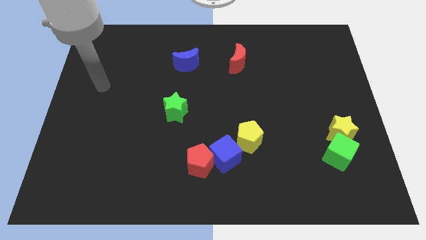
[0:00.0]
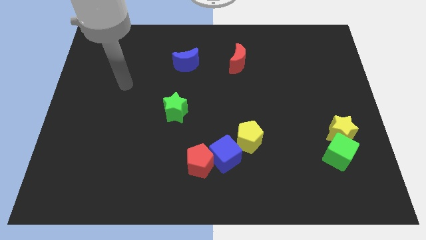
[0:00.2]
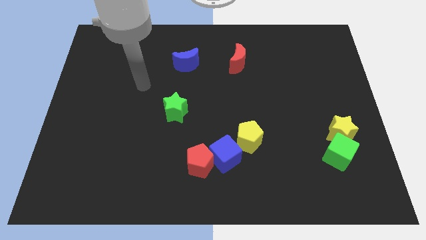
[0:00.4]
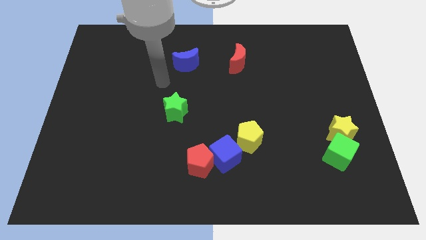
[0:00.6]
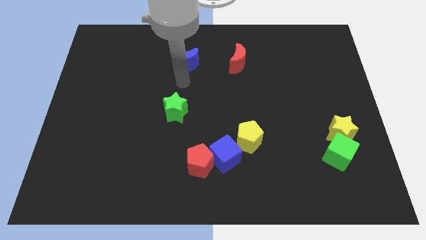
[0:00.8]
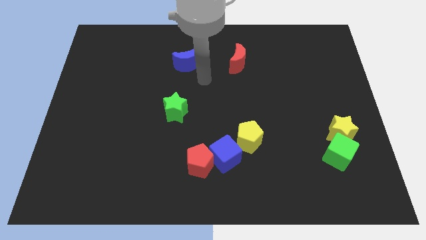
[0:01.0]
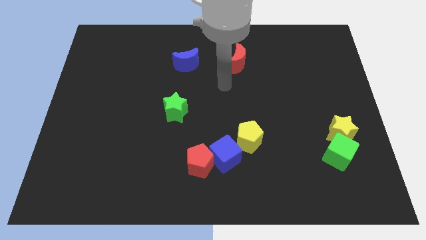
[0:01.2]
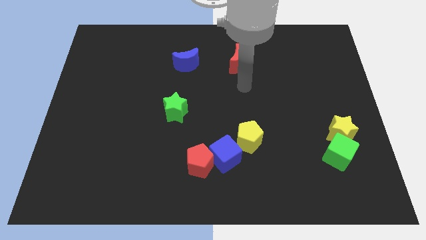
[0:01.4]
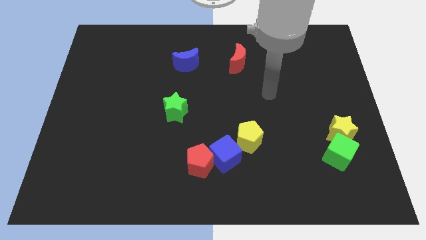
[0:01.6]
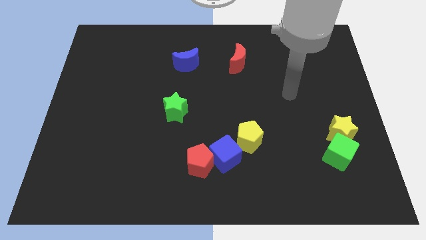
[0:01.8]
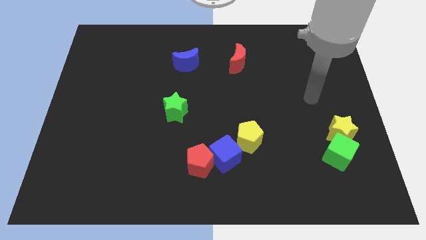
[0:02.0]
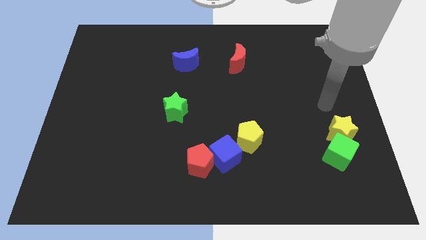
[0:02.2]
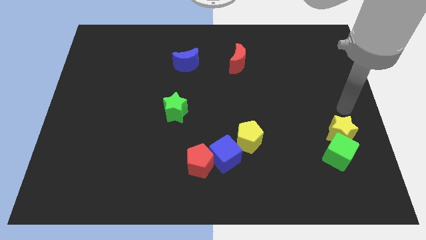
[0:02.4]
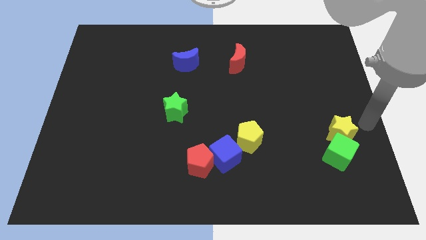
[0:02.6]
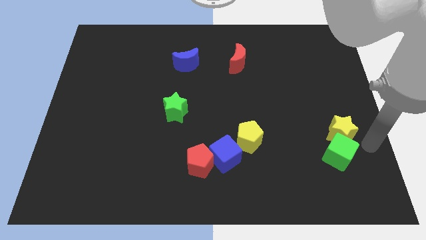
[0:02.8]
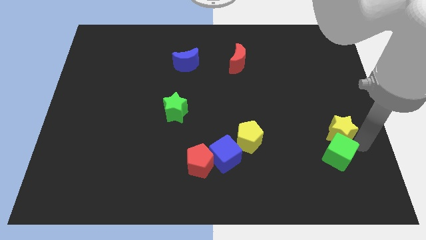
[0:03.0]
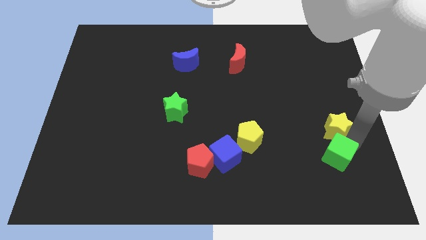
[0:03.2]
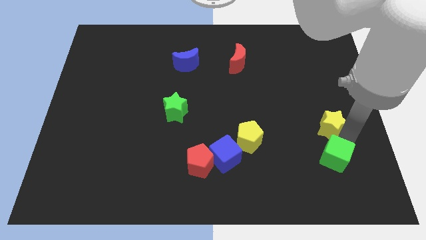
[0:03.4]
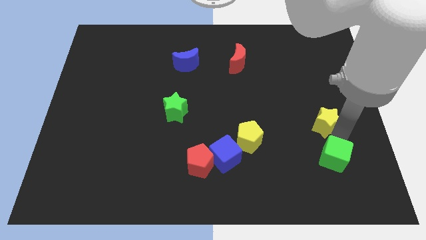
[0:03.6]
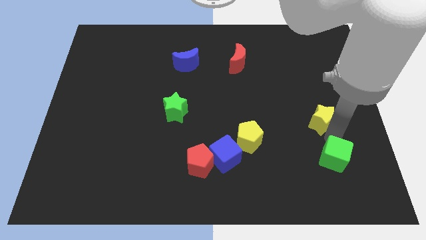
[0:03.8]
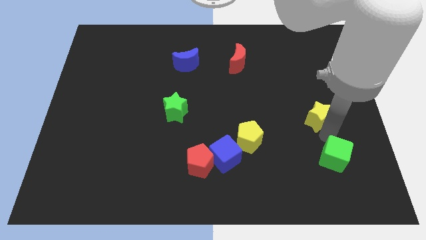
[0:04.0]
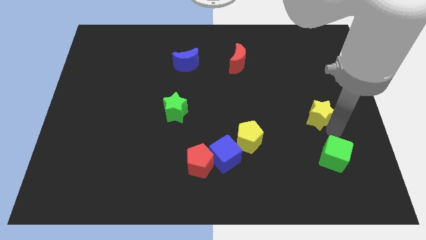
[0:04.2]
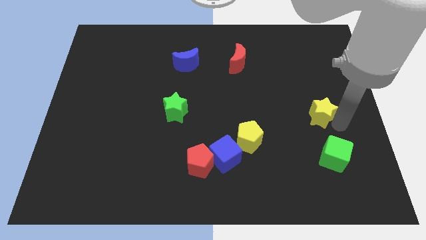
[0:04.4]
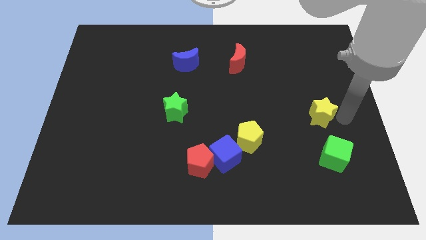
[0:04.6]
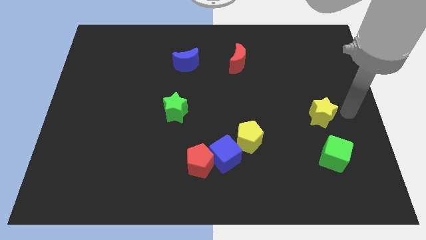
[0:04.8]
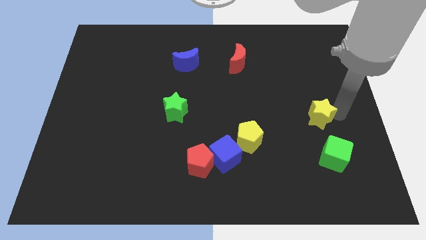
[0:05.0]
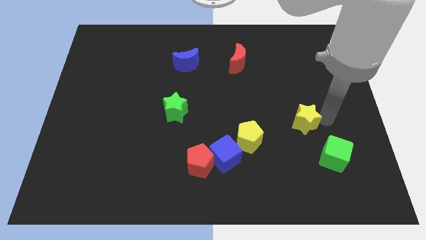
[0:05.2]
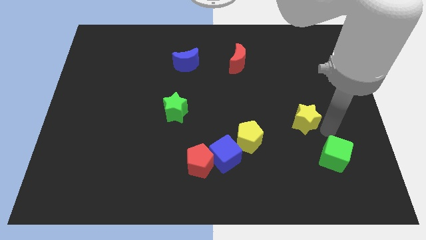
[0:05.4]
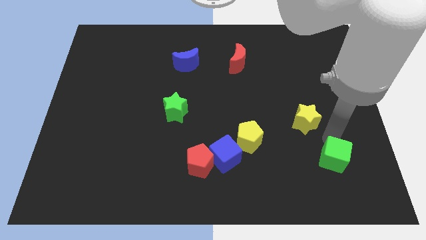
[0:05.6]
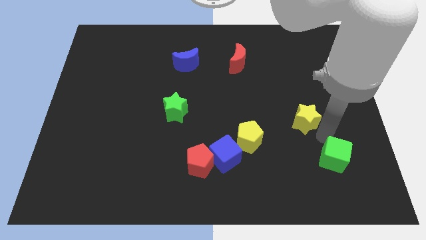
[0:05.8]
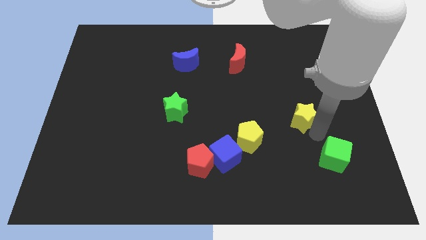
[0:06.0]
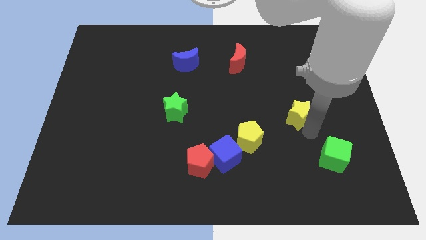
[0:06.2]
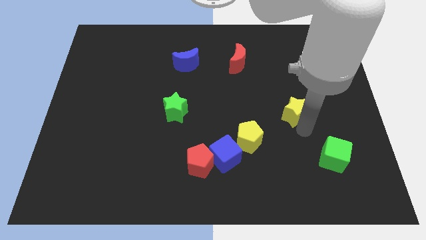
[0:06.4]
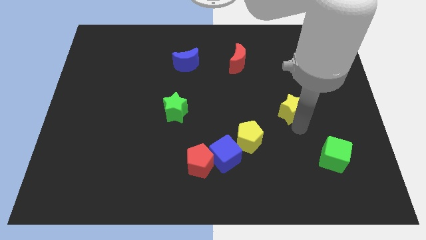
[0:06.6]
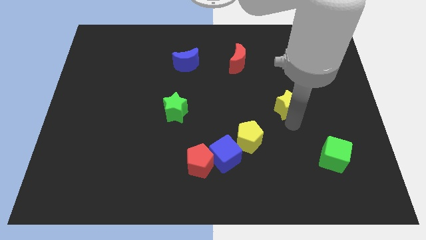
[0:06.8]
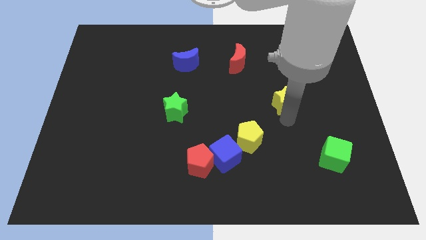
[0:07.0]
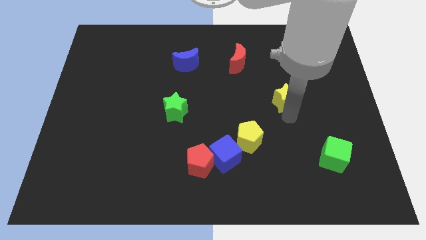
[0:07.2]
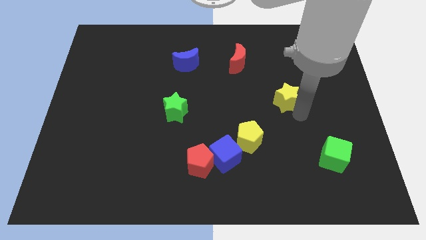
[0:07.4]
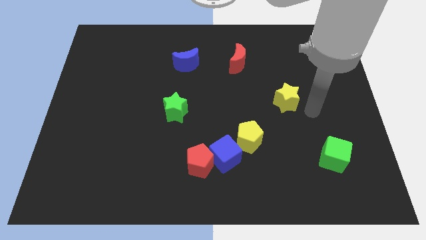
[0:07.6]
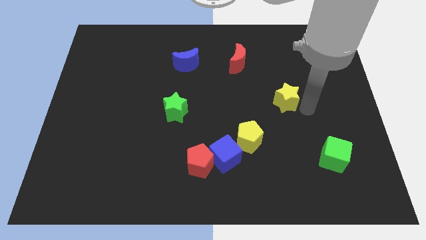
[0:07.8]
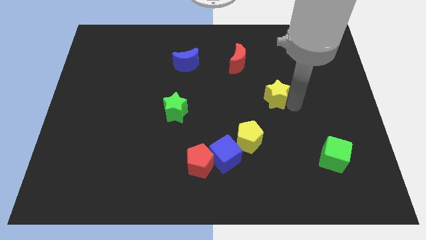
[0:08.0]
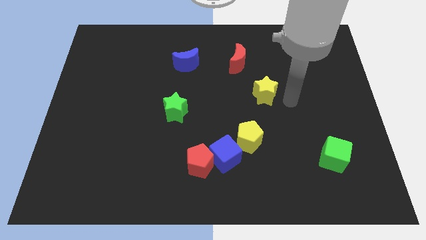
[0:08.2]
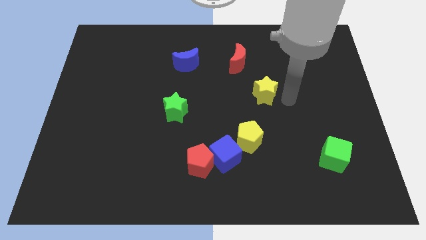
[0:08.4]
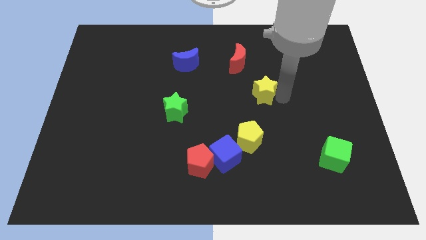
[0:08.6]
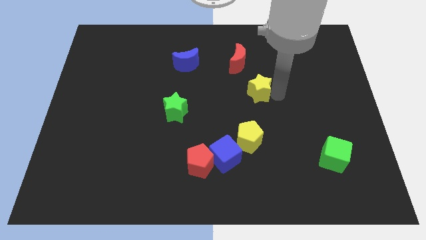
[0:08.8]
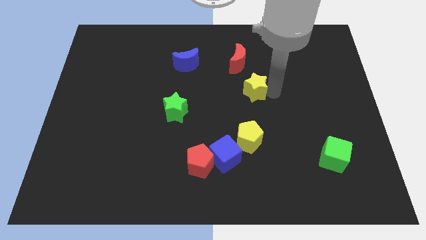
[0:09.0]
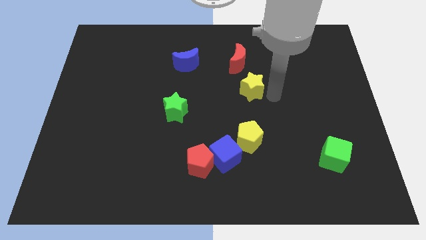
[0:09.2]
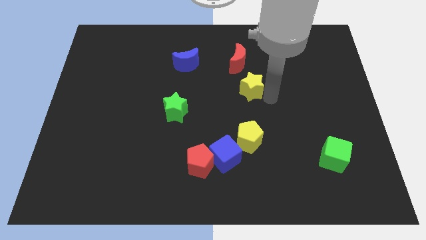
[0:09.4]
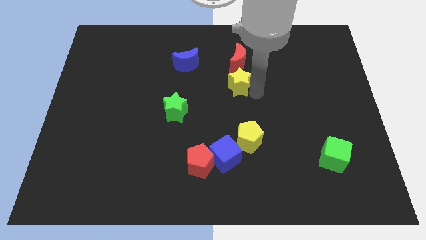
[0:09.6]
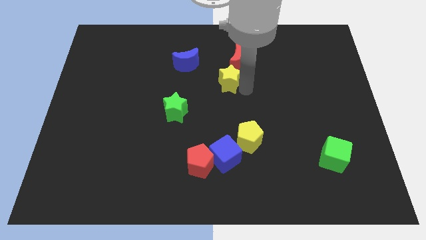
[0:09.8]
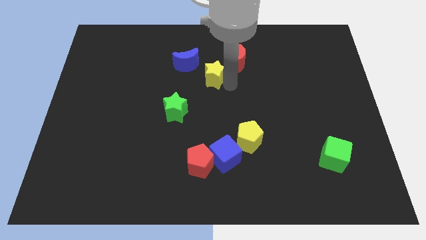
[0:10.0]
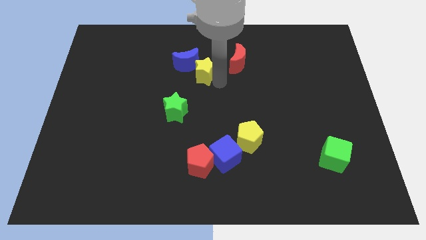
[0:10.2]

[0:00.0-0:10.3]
put the yellow star to the blue moon

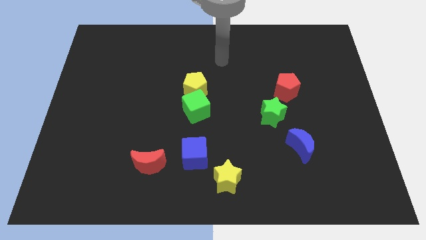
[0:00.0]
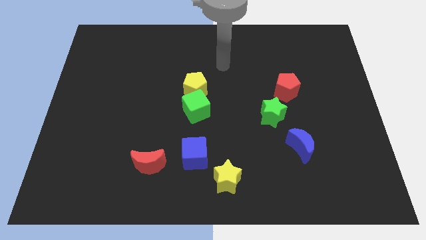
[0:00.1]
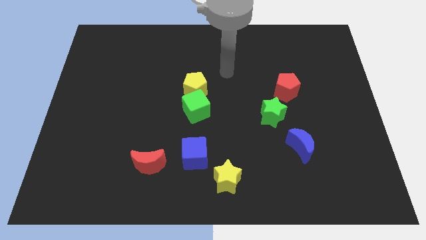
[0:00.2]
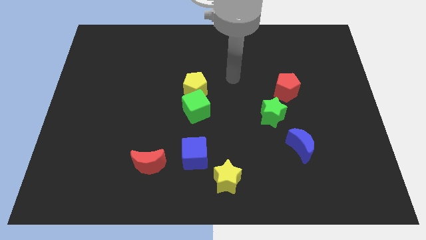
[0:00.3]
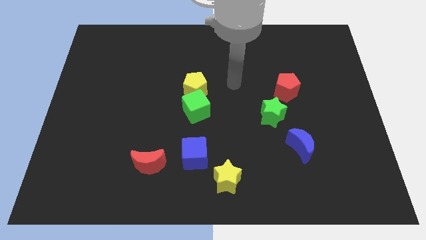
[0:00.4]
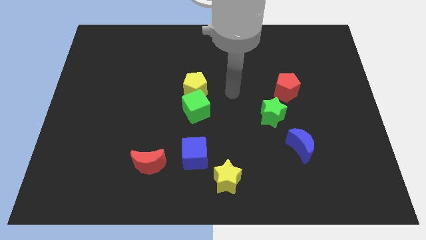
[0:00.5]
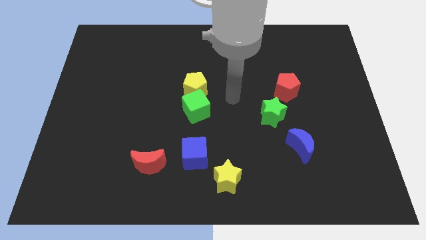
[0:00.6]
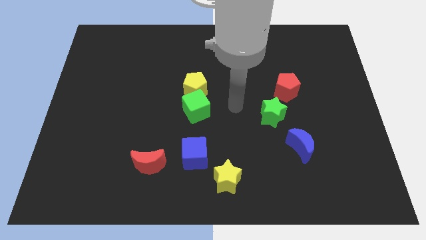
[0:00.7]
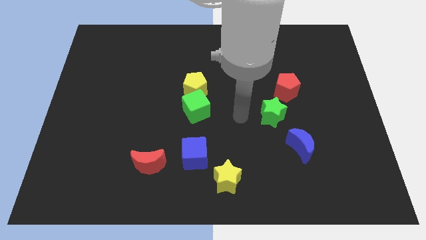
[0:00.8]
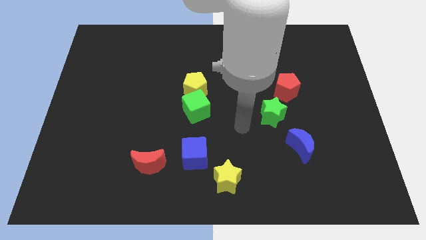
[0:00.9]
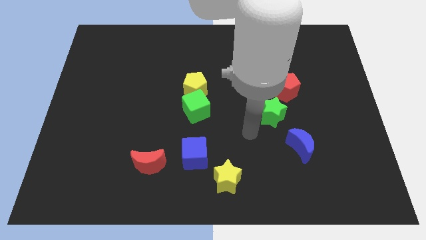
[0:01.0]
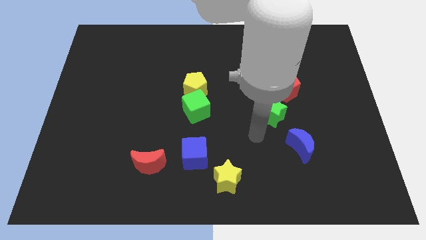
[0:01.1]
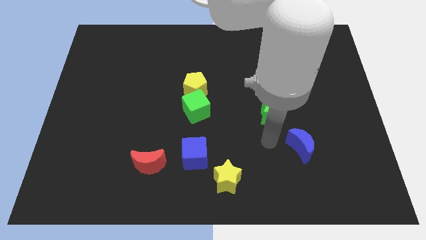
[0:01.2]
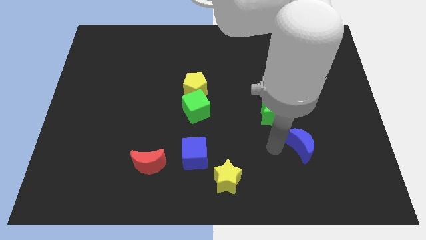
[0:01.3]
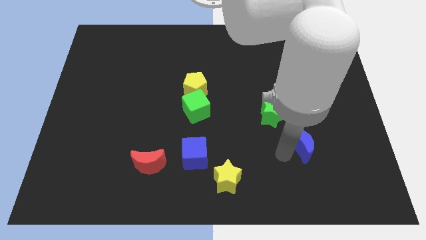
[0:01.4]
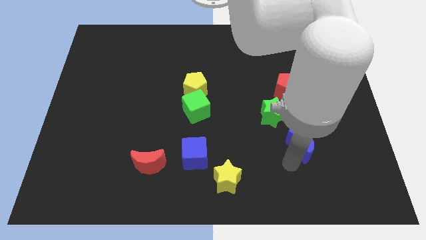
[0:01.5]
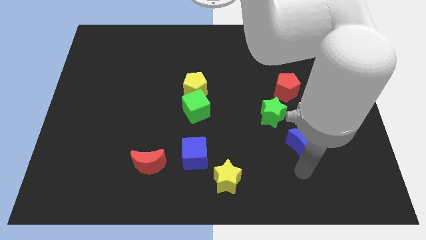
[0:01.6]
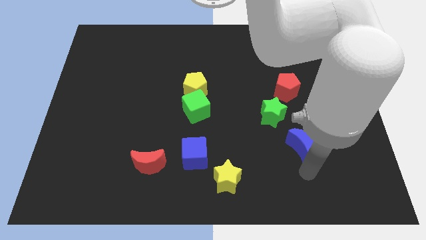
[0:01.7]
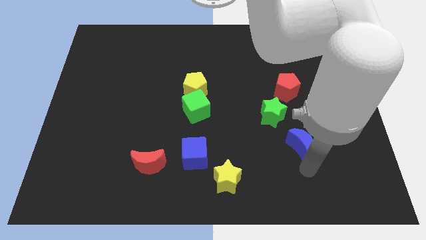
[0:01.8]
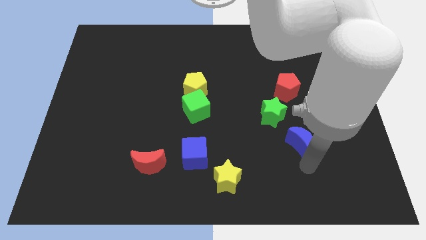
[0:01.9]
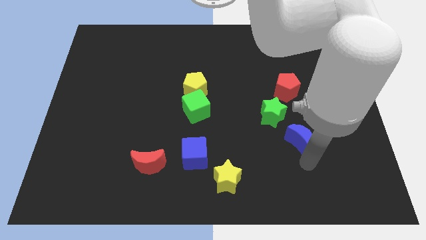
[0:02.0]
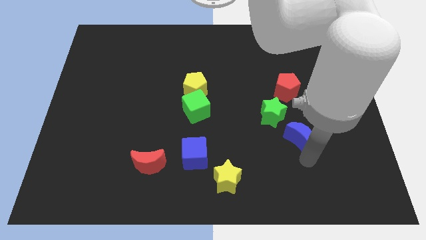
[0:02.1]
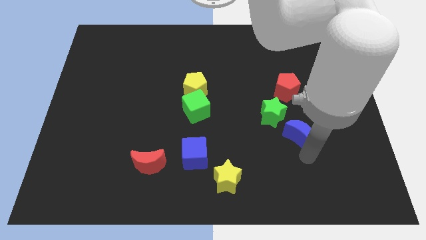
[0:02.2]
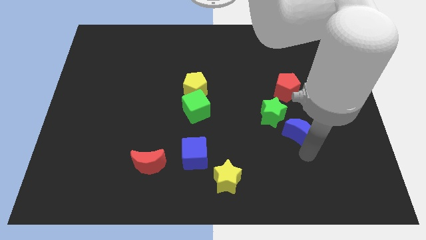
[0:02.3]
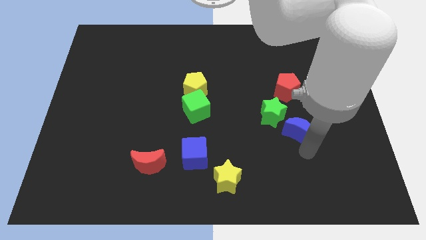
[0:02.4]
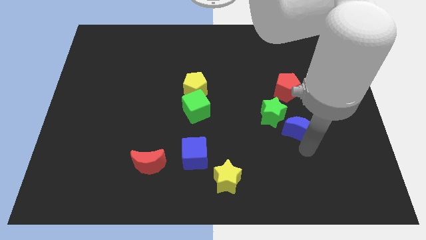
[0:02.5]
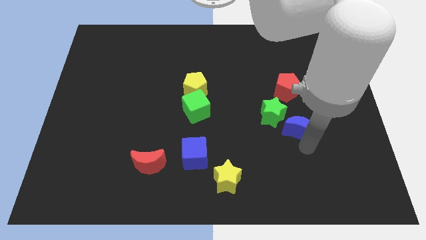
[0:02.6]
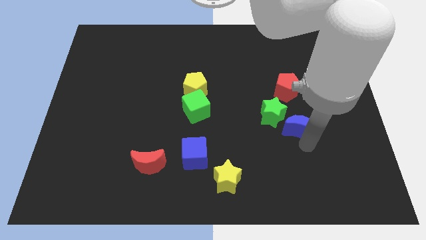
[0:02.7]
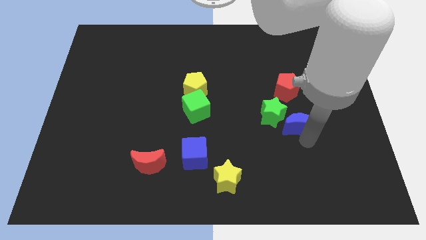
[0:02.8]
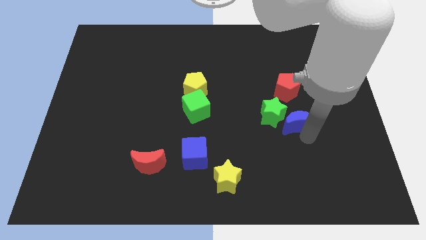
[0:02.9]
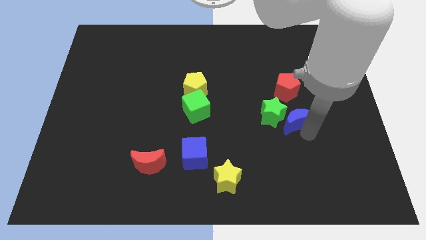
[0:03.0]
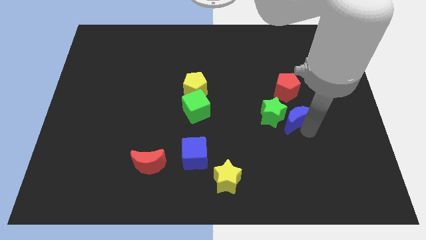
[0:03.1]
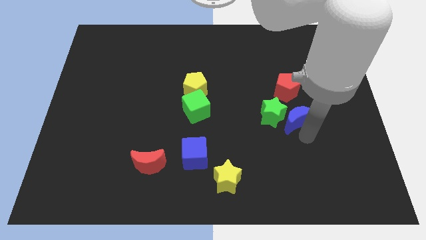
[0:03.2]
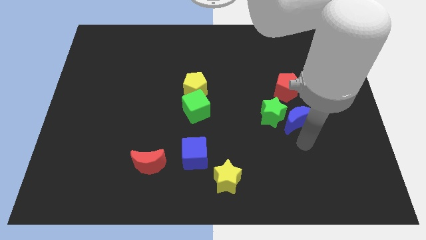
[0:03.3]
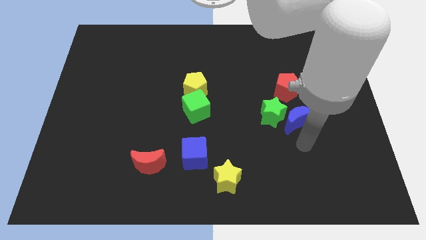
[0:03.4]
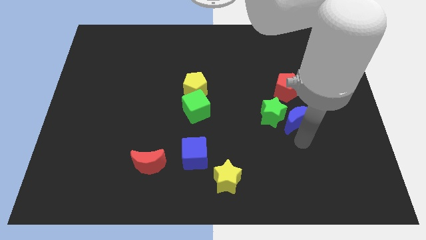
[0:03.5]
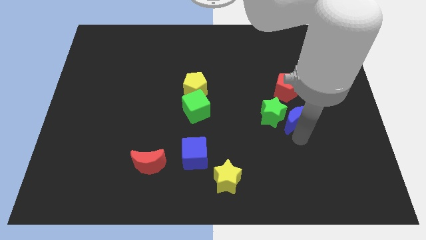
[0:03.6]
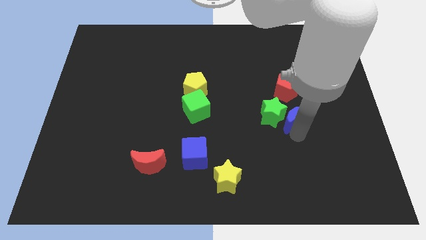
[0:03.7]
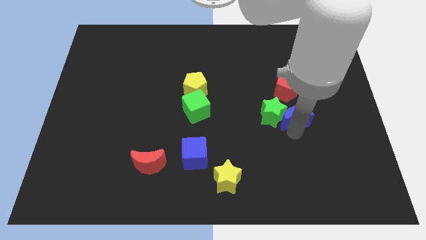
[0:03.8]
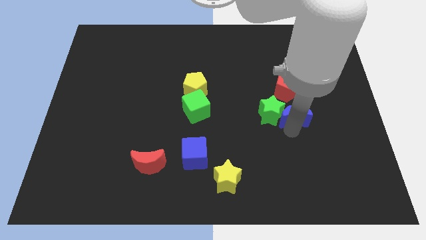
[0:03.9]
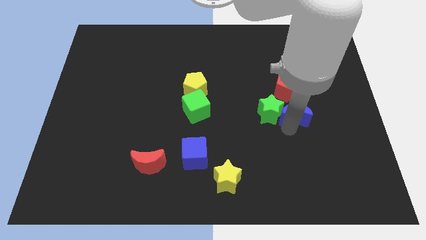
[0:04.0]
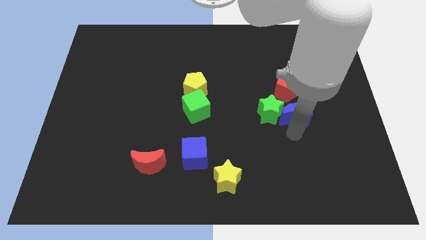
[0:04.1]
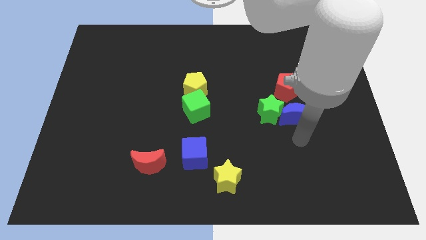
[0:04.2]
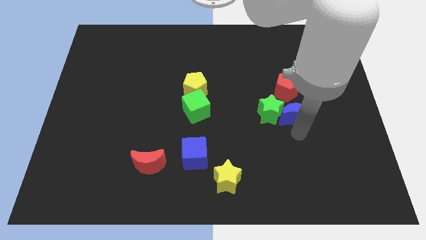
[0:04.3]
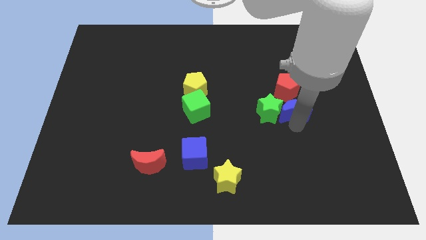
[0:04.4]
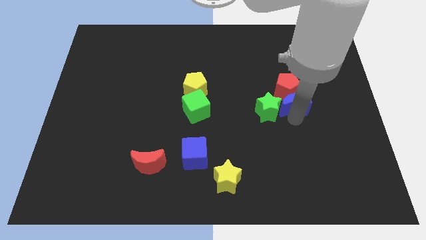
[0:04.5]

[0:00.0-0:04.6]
put the blue moon to the red pentagon
